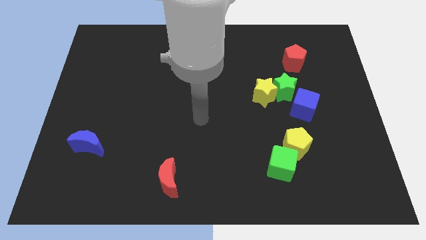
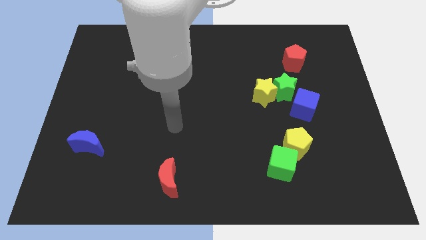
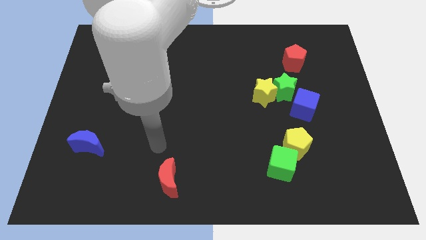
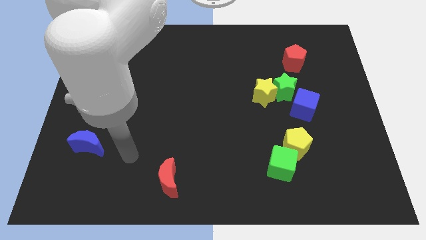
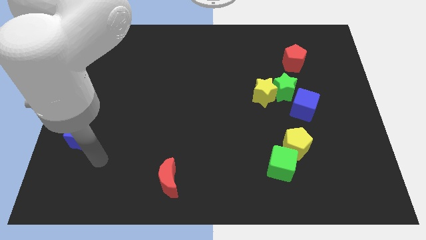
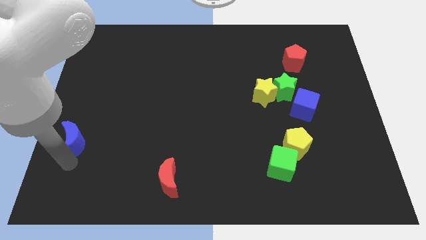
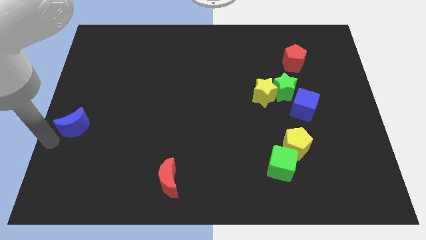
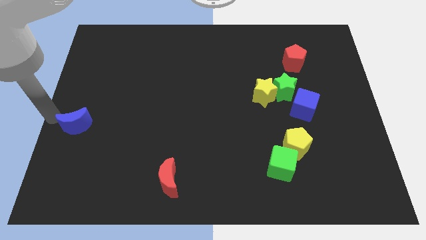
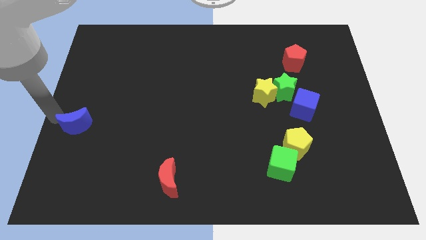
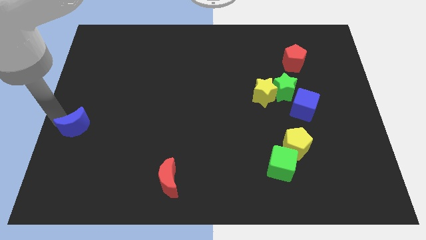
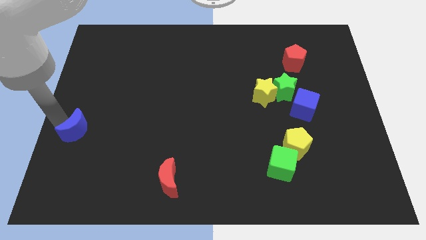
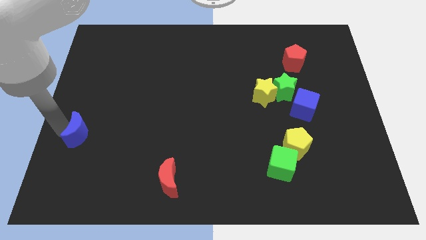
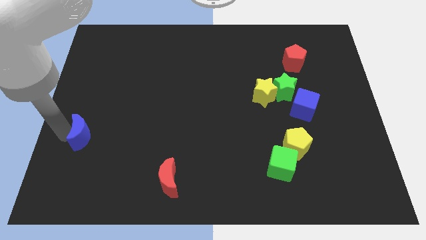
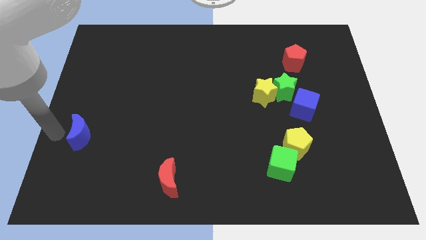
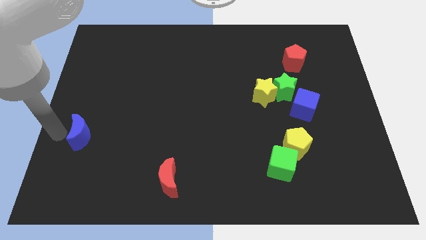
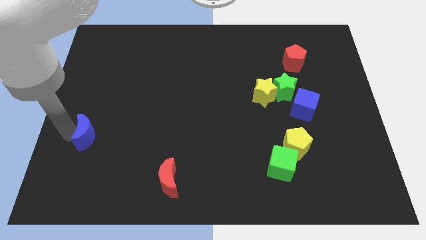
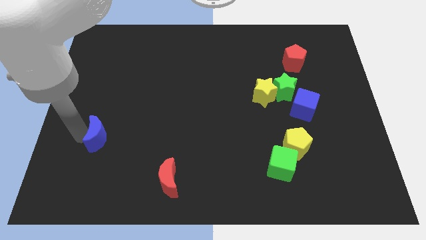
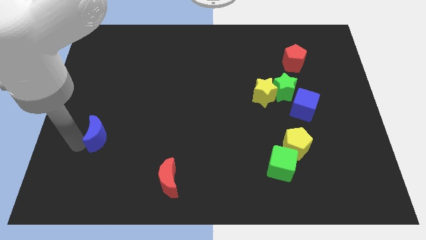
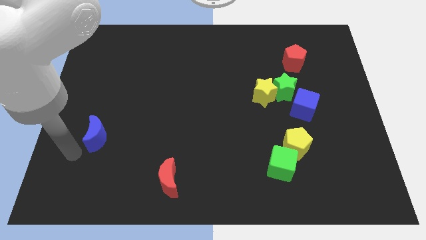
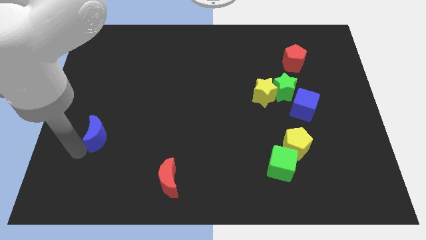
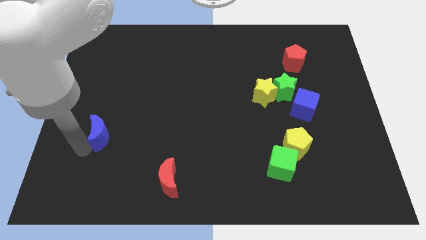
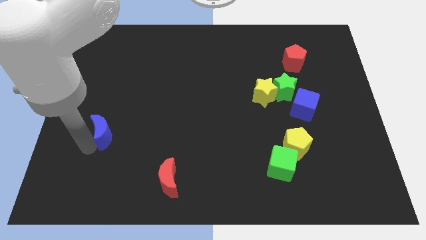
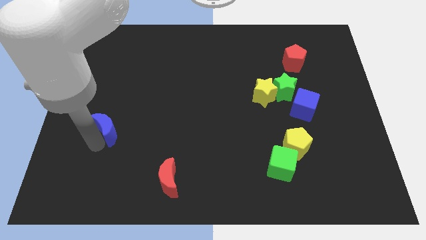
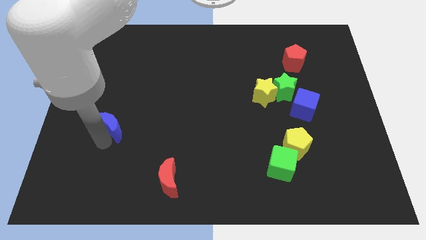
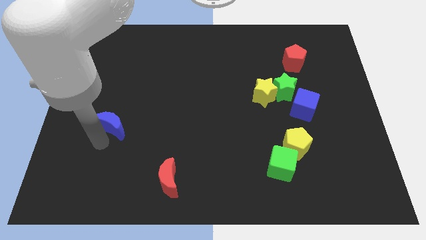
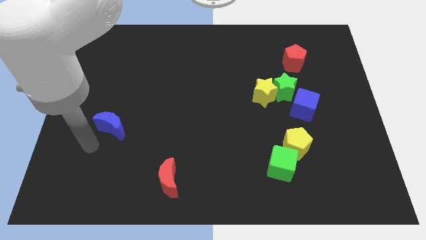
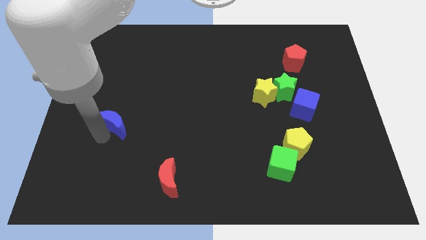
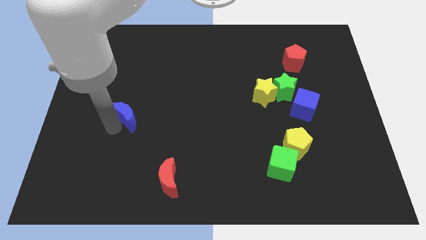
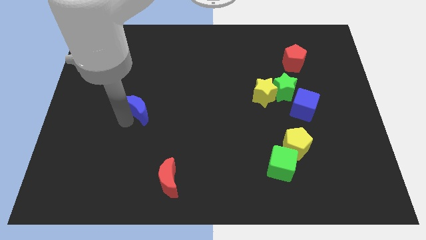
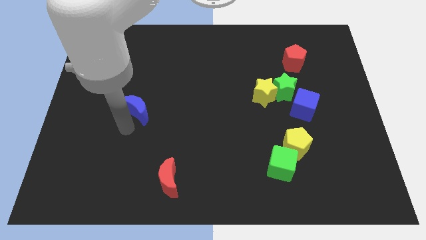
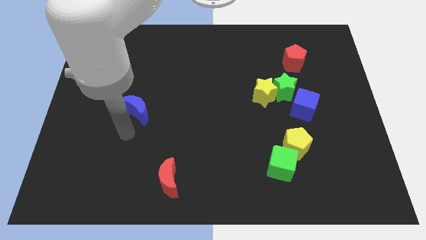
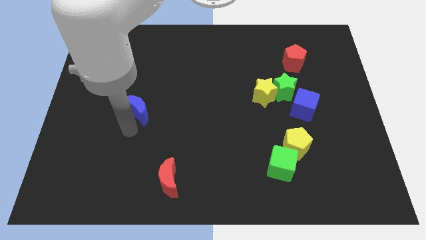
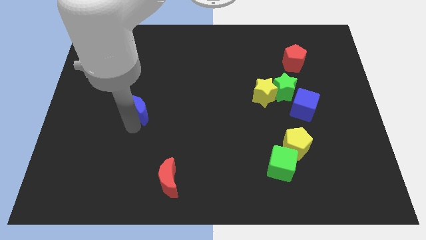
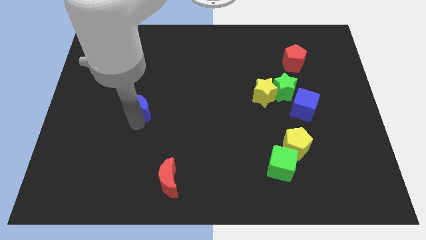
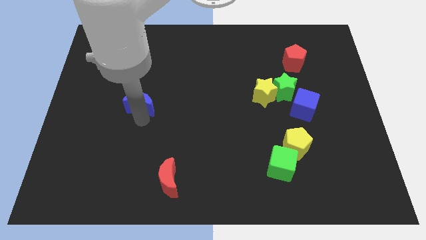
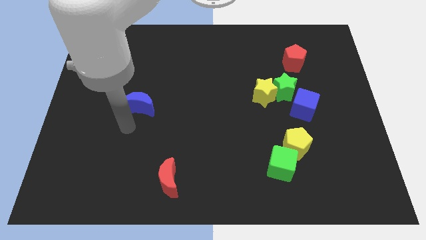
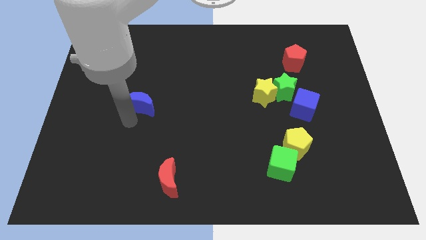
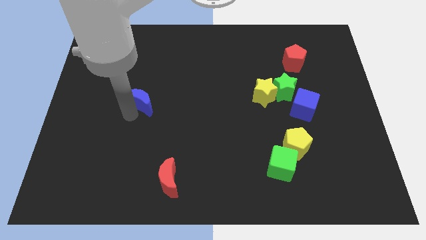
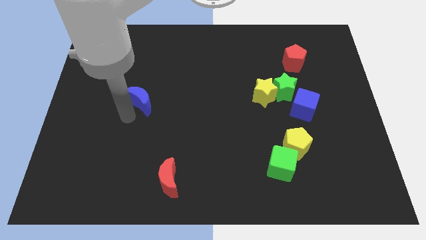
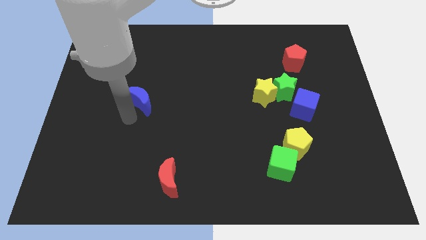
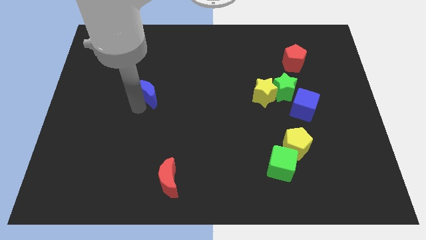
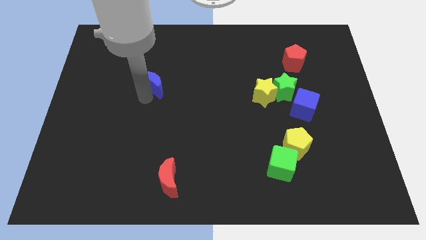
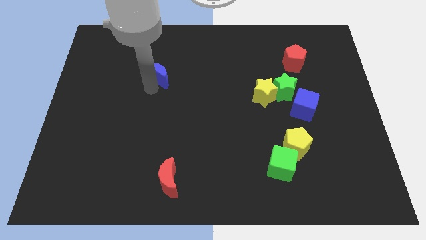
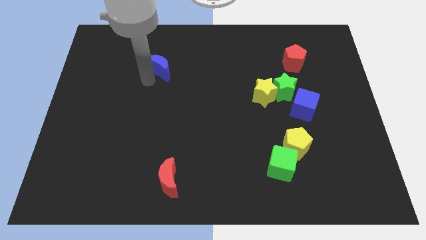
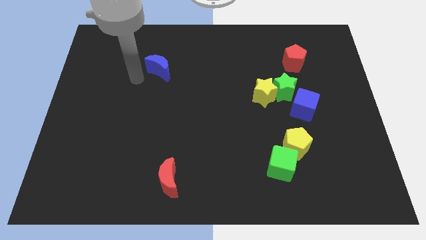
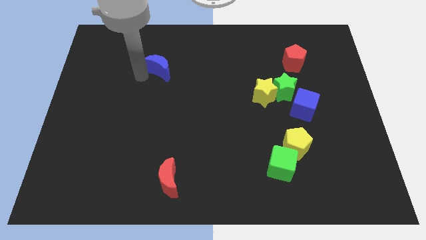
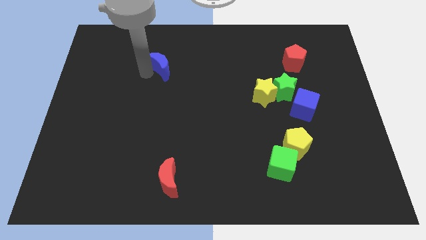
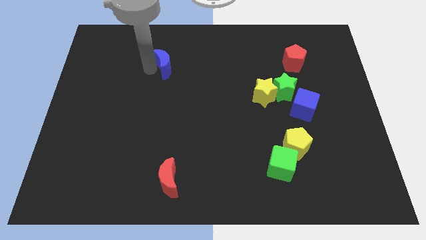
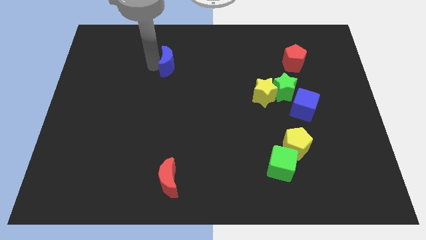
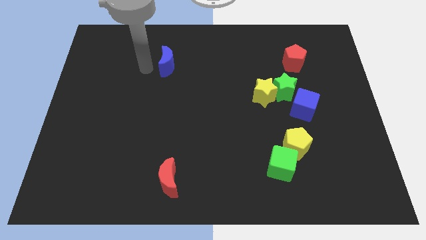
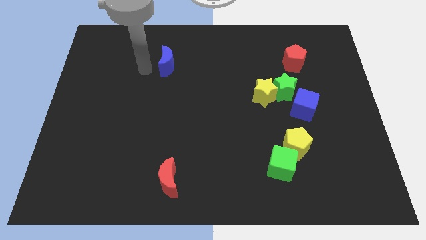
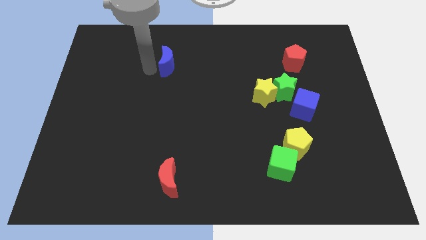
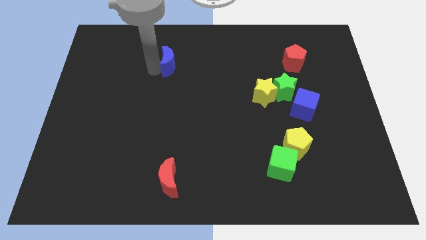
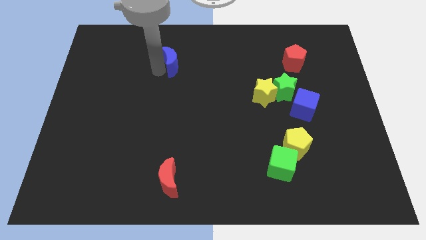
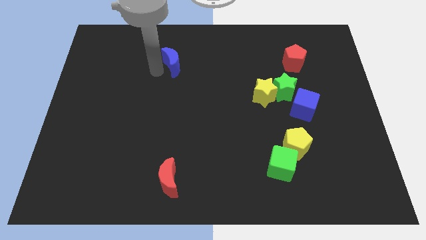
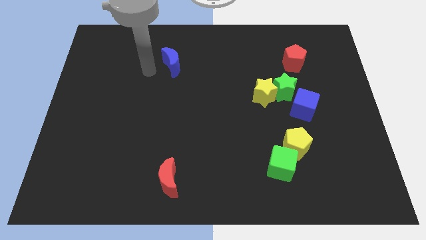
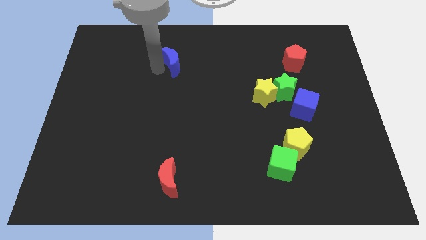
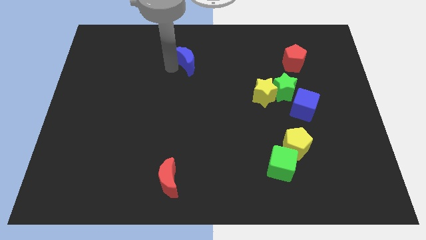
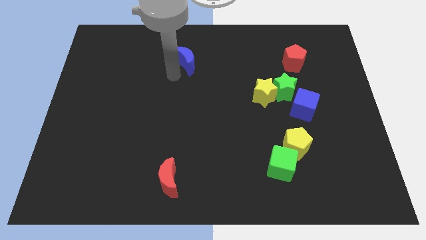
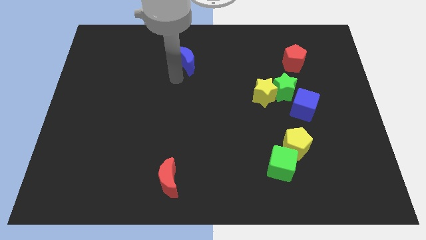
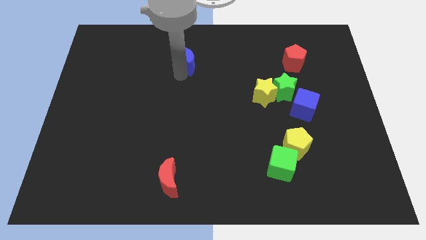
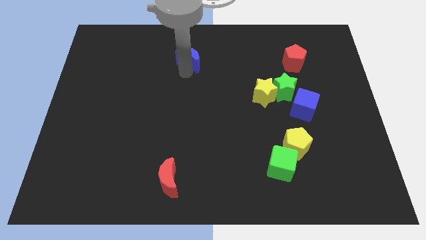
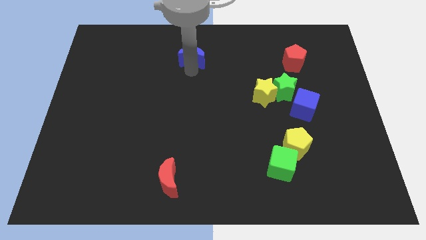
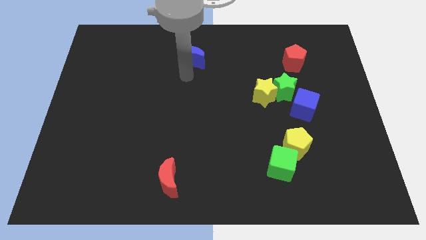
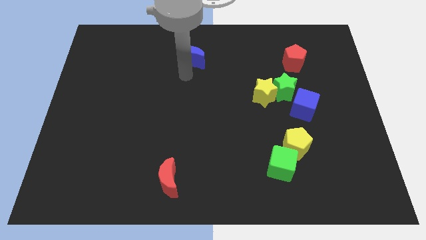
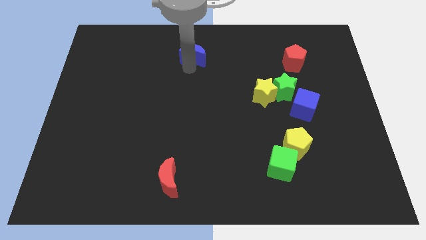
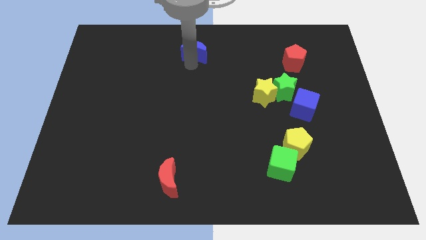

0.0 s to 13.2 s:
push the blue moon to the top

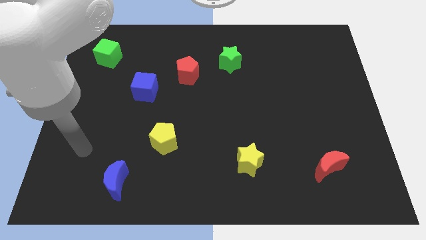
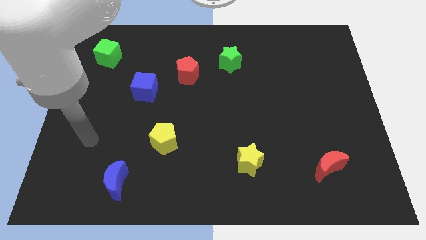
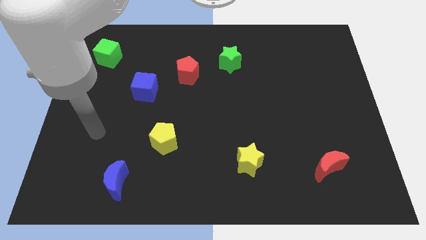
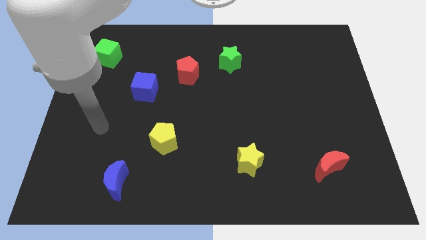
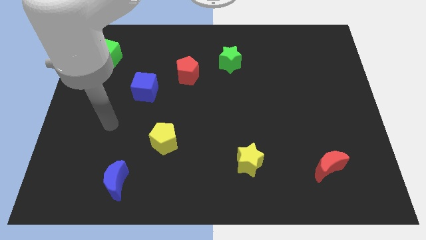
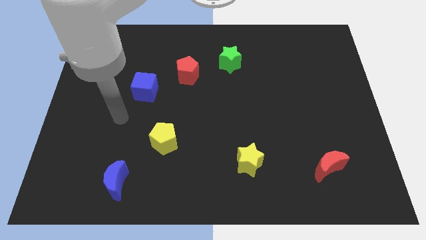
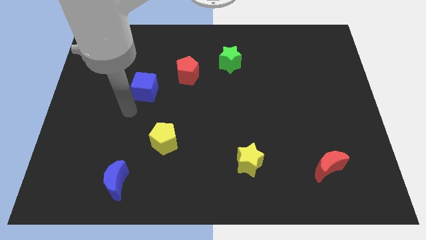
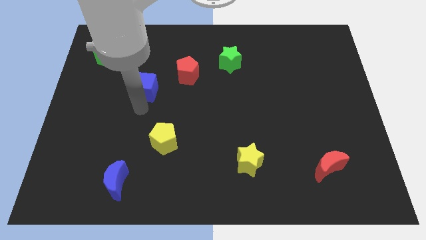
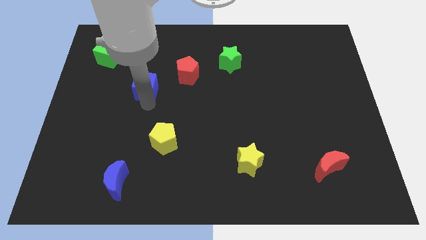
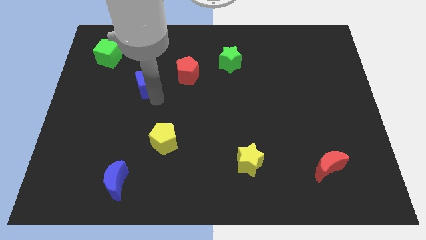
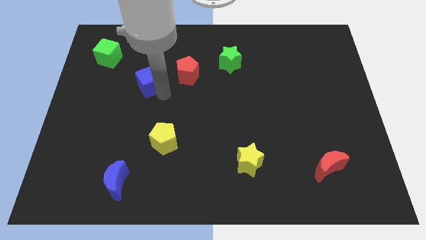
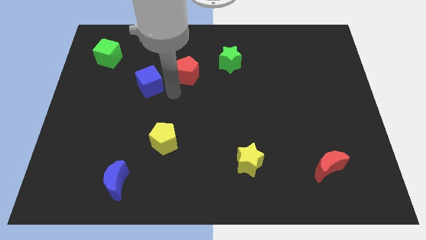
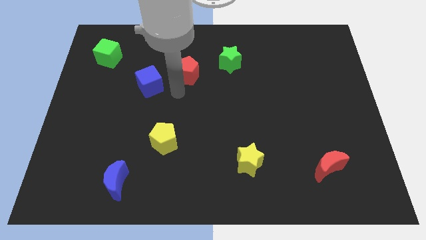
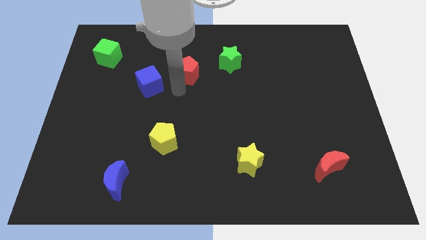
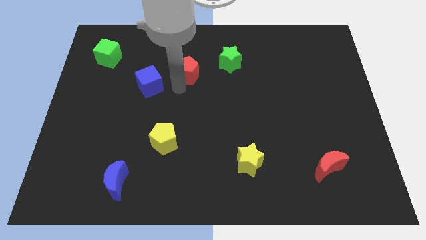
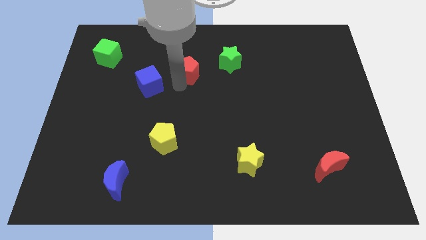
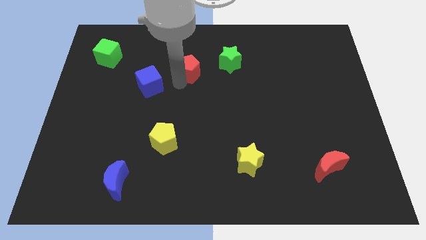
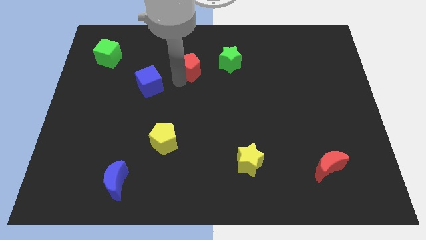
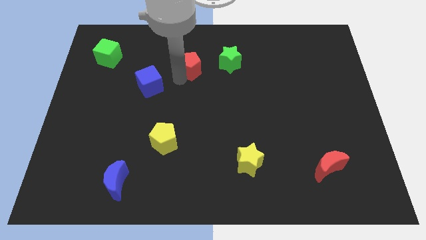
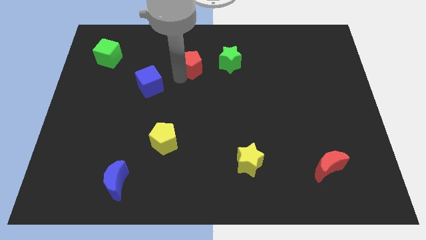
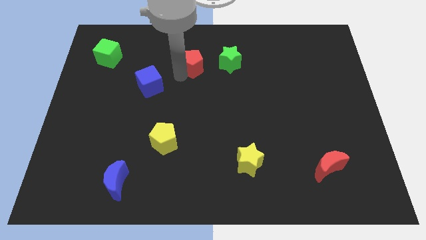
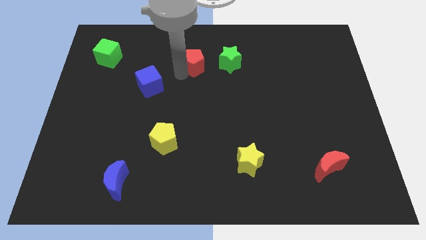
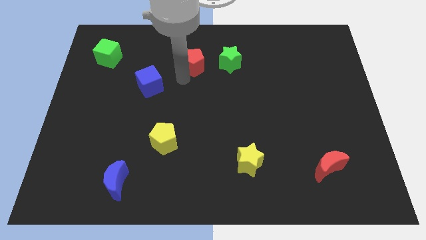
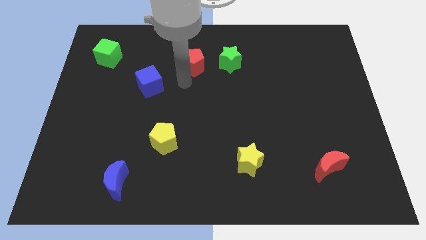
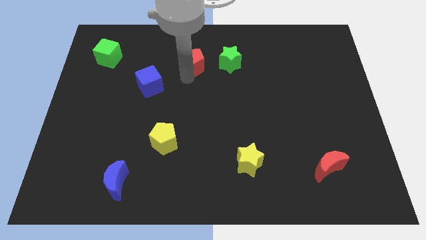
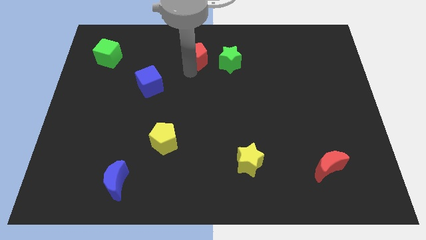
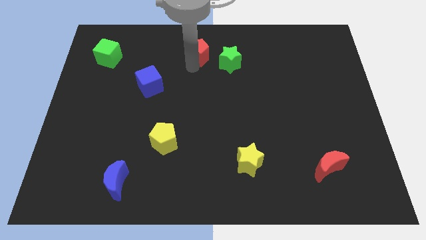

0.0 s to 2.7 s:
move the red pentagon to the towards your base
